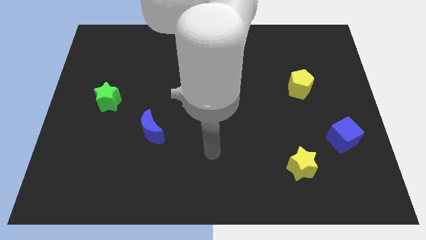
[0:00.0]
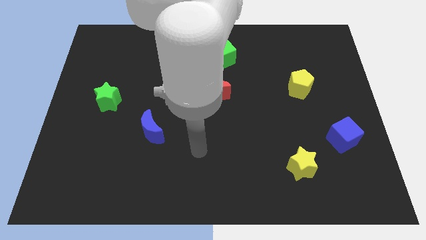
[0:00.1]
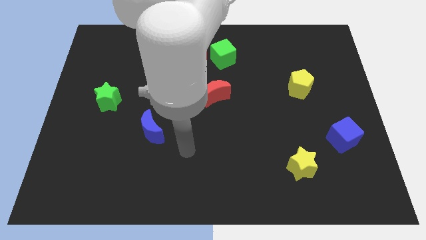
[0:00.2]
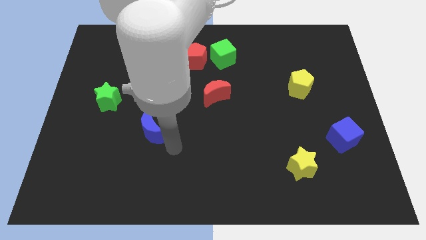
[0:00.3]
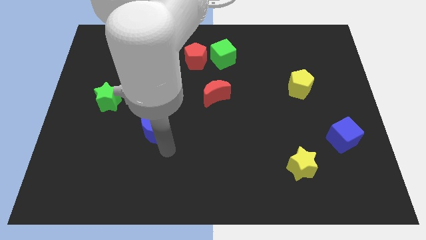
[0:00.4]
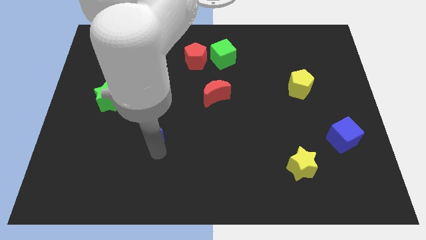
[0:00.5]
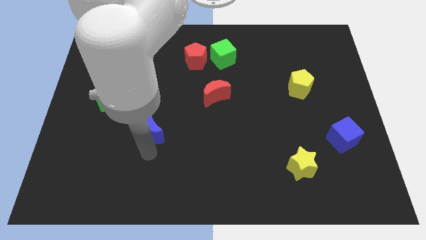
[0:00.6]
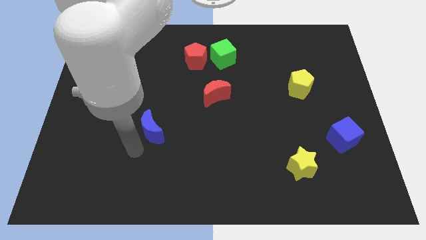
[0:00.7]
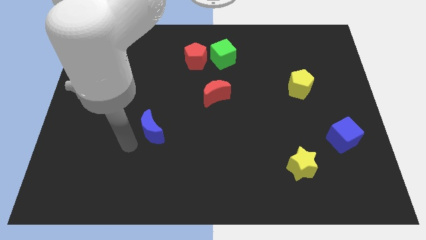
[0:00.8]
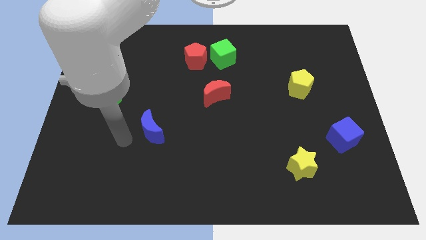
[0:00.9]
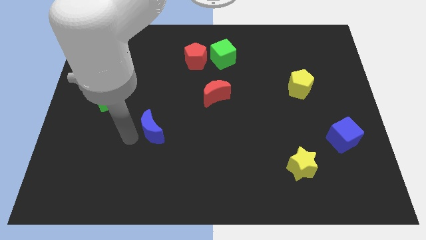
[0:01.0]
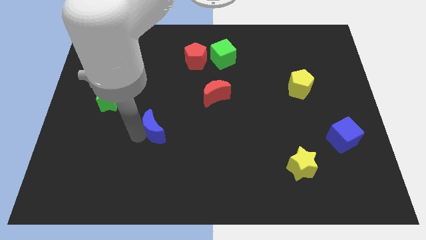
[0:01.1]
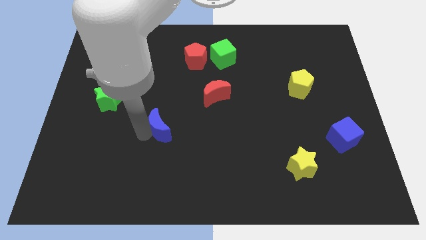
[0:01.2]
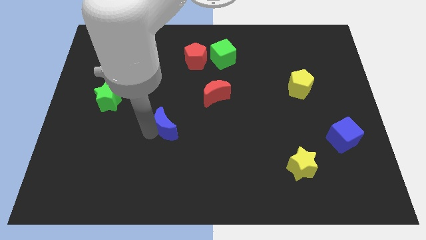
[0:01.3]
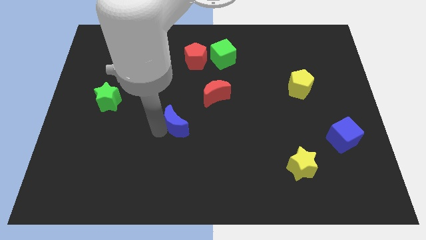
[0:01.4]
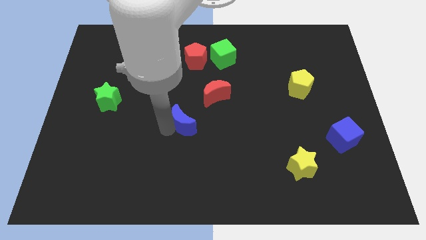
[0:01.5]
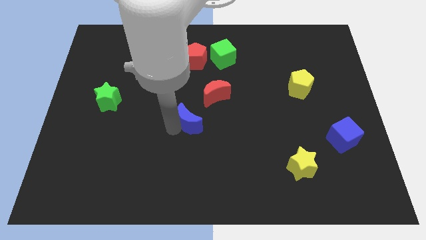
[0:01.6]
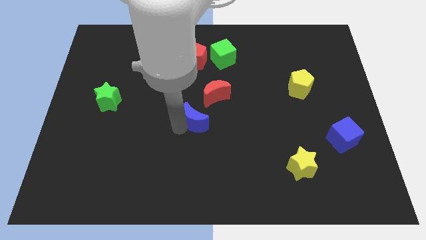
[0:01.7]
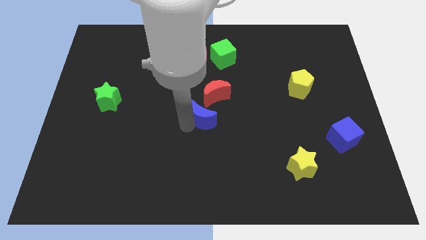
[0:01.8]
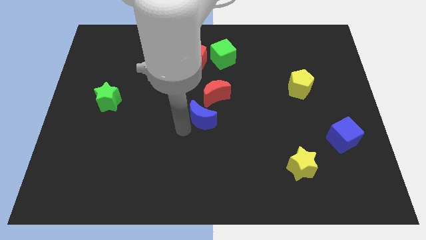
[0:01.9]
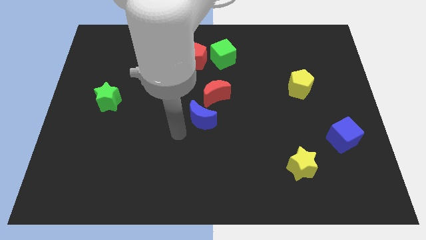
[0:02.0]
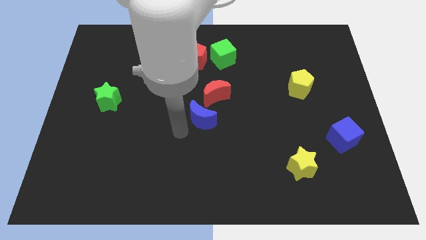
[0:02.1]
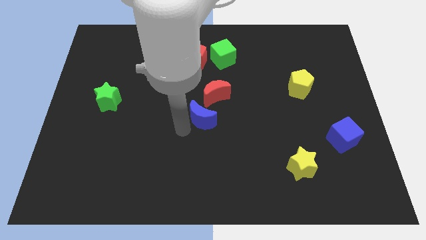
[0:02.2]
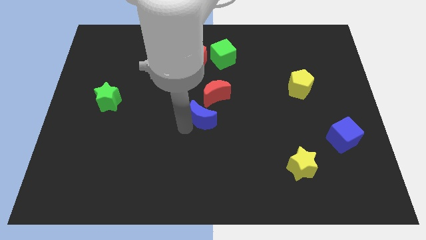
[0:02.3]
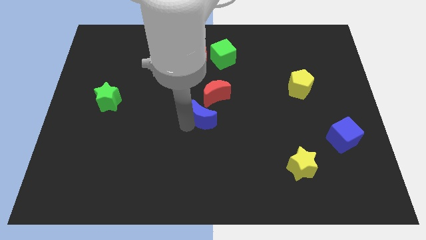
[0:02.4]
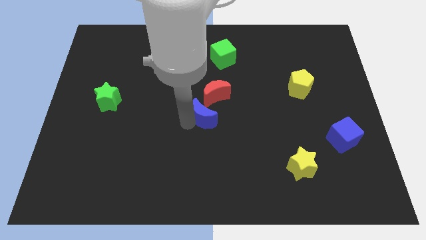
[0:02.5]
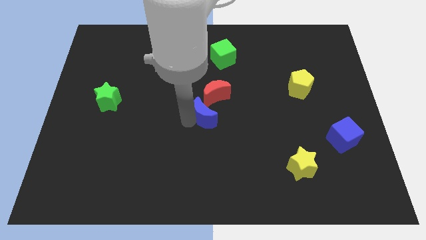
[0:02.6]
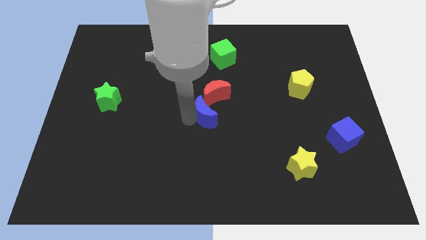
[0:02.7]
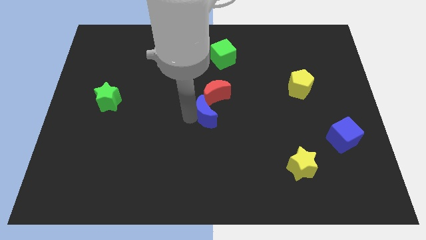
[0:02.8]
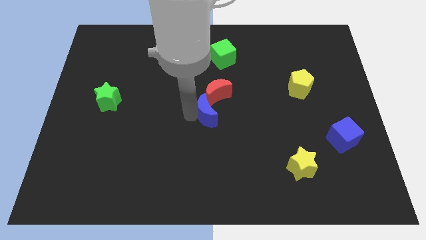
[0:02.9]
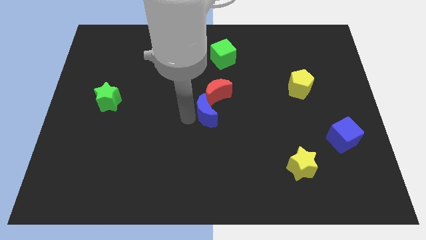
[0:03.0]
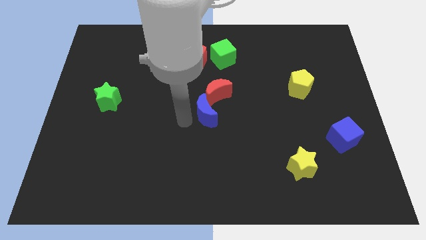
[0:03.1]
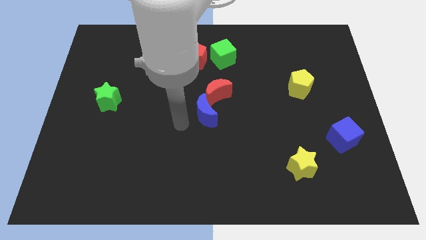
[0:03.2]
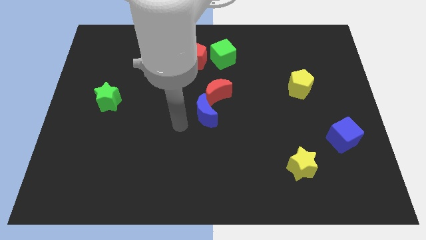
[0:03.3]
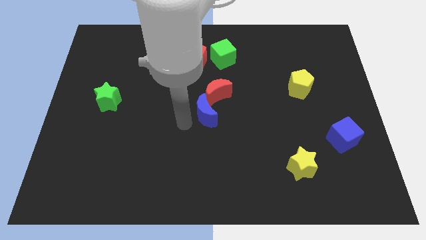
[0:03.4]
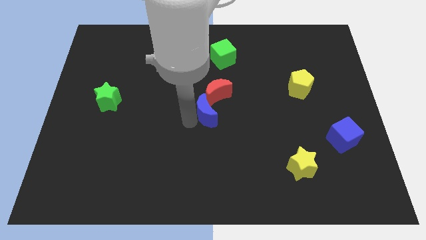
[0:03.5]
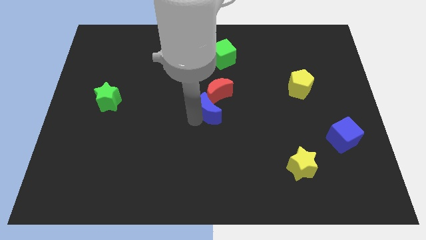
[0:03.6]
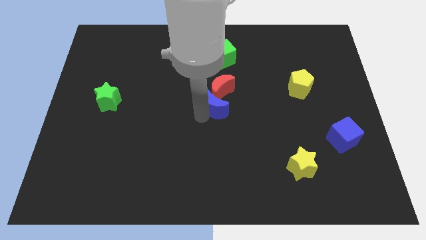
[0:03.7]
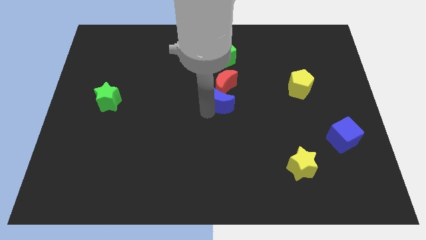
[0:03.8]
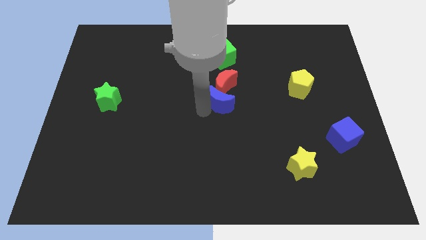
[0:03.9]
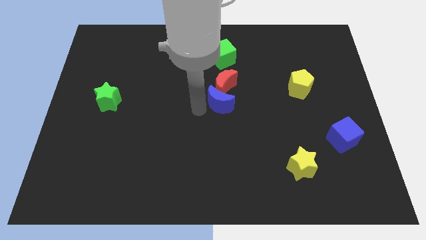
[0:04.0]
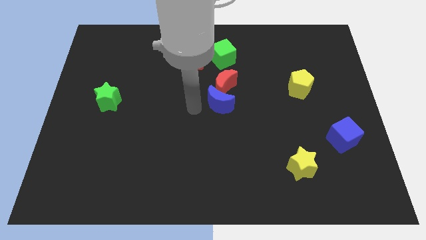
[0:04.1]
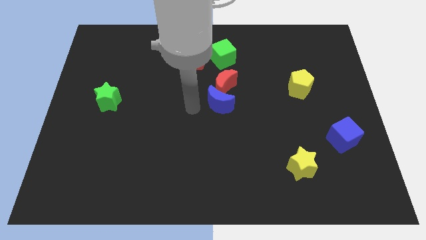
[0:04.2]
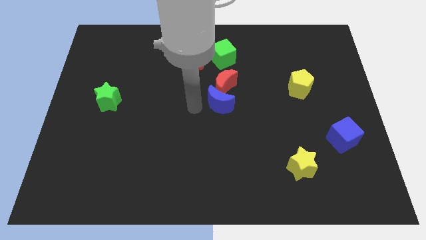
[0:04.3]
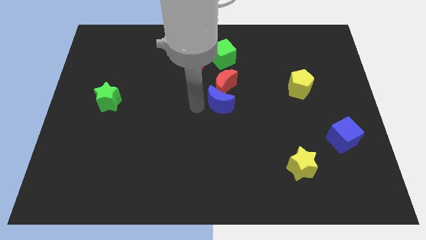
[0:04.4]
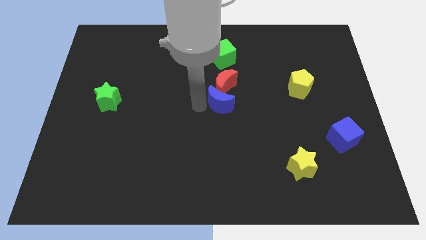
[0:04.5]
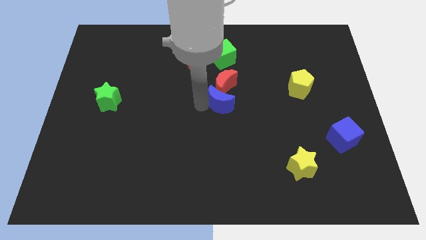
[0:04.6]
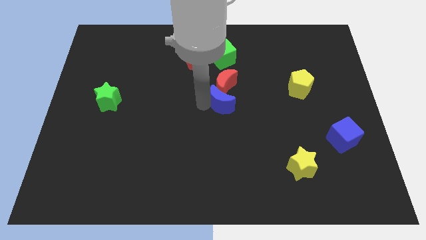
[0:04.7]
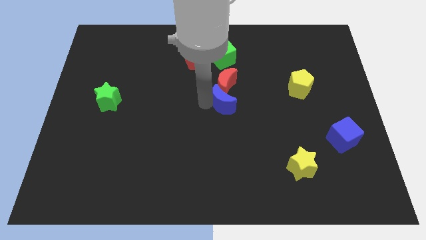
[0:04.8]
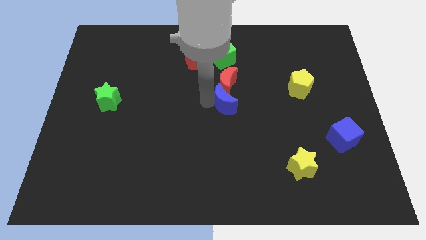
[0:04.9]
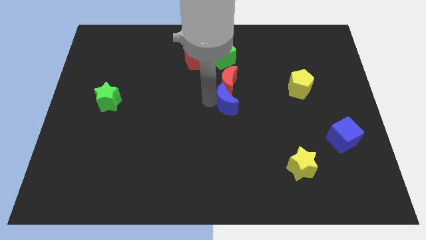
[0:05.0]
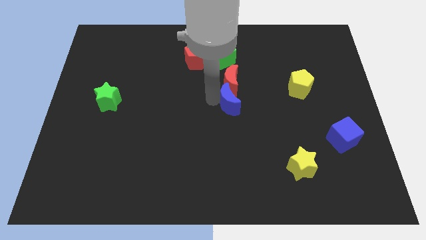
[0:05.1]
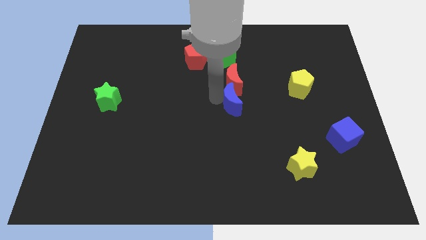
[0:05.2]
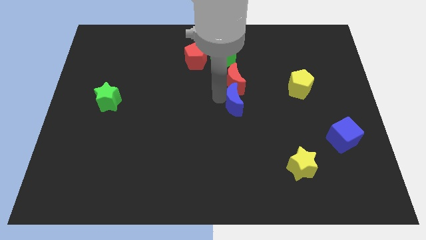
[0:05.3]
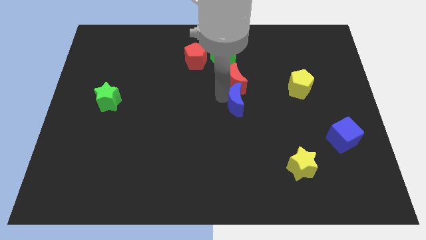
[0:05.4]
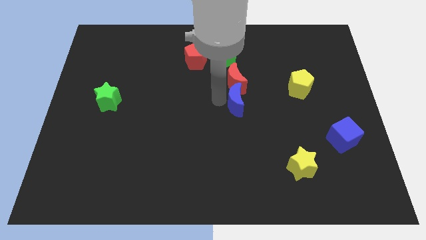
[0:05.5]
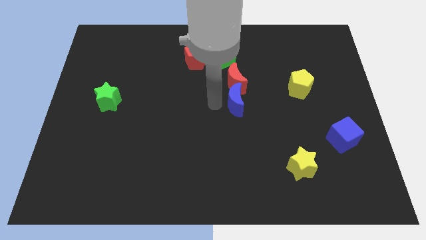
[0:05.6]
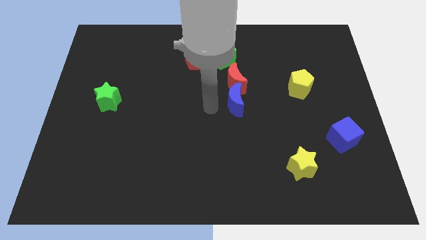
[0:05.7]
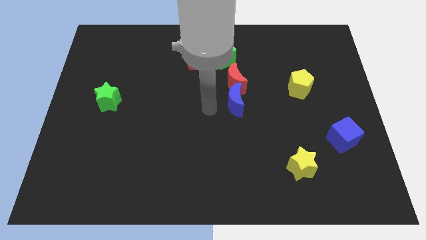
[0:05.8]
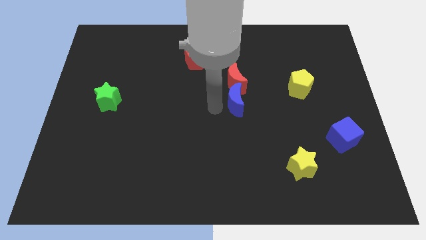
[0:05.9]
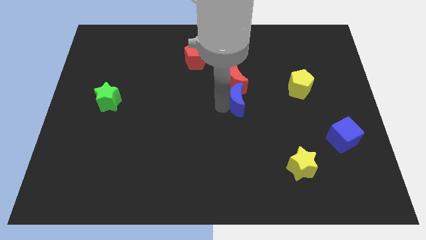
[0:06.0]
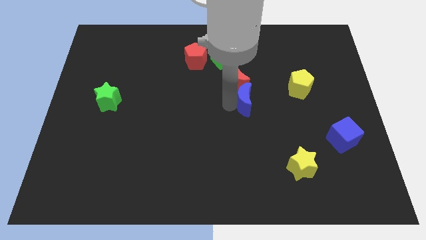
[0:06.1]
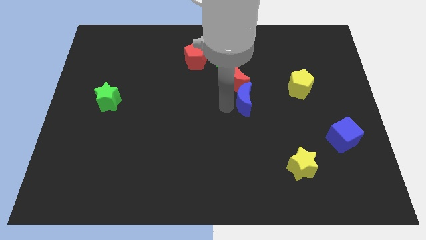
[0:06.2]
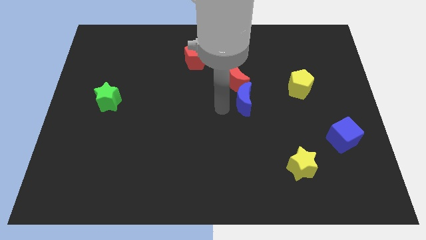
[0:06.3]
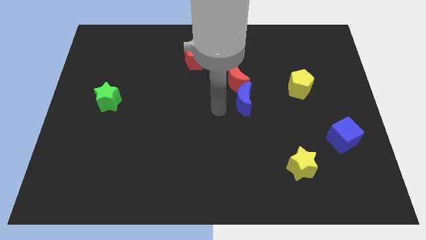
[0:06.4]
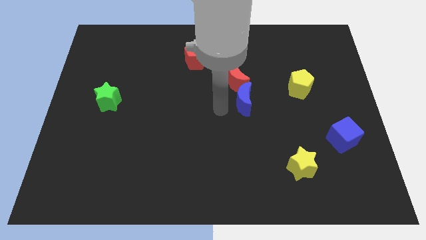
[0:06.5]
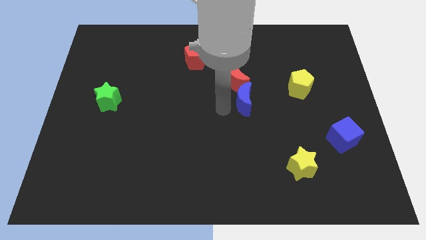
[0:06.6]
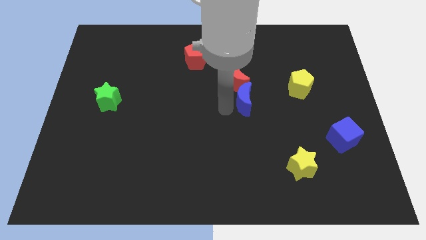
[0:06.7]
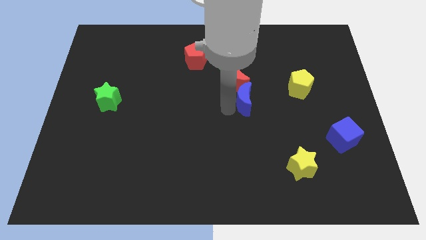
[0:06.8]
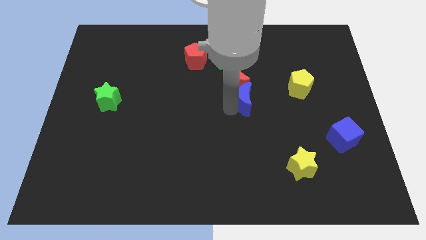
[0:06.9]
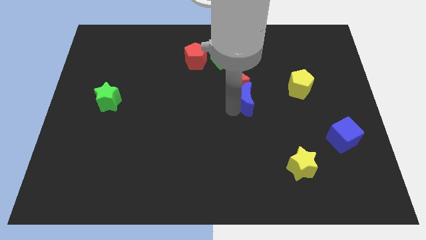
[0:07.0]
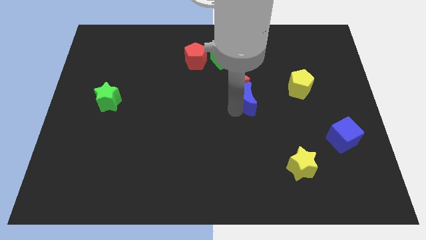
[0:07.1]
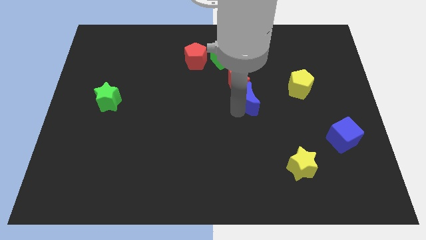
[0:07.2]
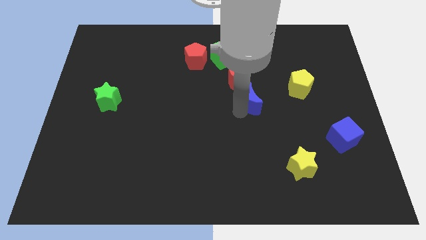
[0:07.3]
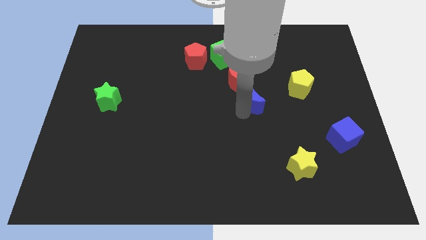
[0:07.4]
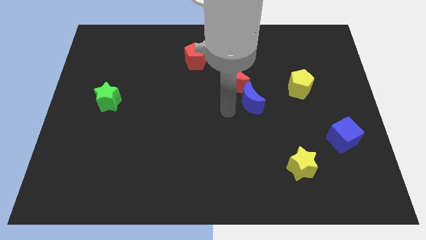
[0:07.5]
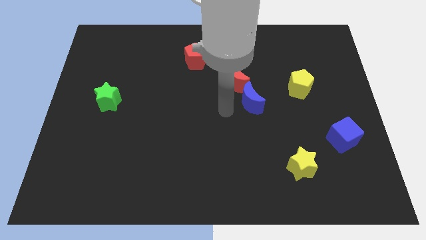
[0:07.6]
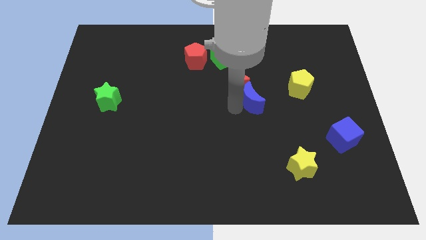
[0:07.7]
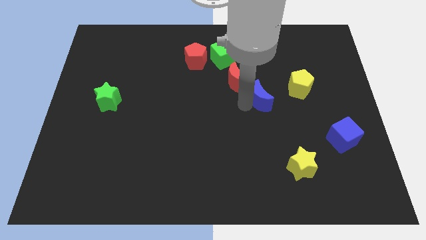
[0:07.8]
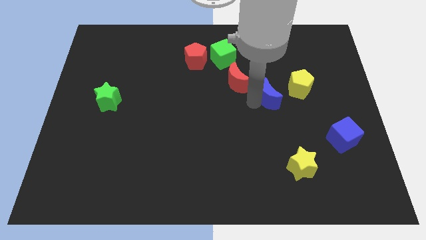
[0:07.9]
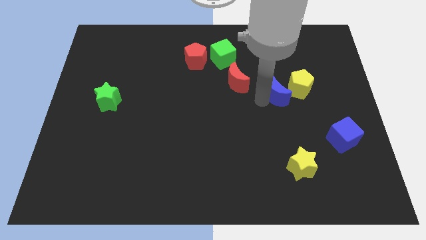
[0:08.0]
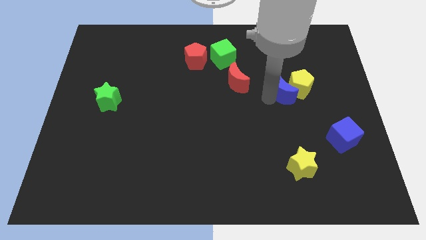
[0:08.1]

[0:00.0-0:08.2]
put the blue moon next to the yellow pentagon
